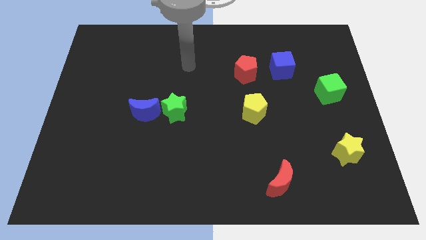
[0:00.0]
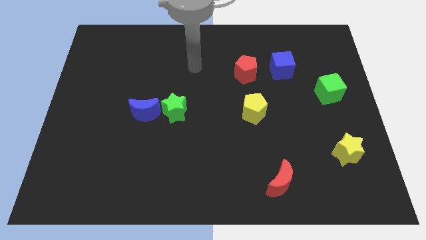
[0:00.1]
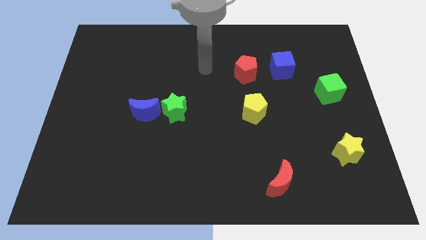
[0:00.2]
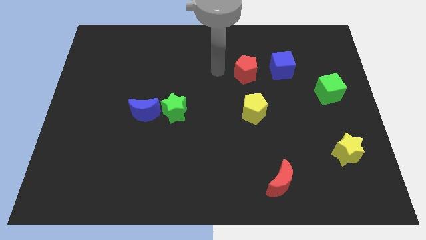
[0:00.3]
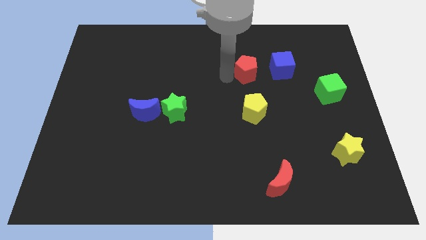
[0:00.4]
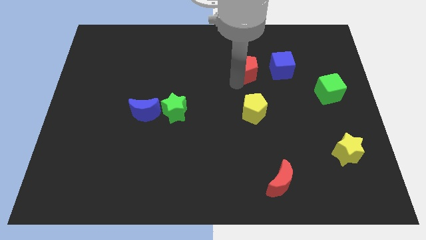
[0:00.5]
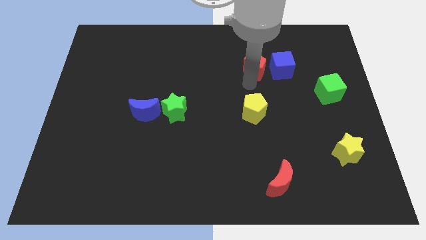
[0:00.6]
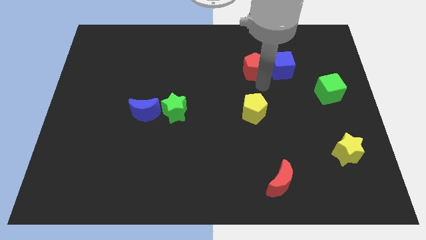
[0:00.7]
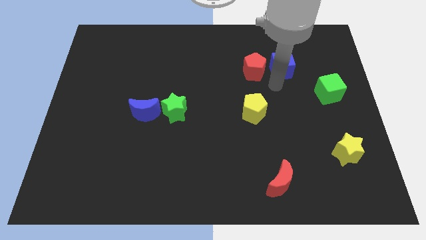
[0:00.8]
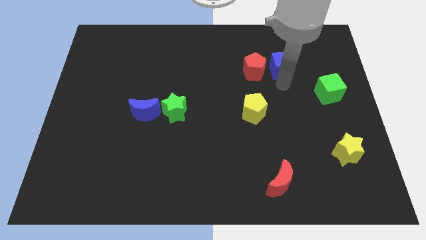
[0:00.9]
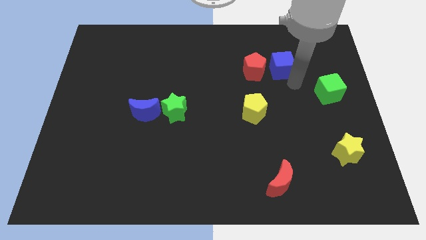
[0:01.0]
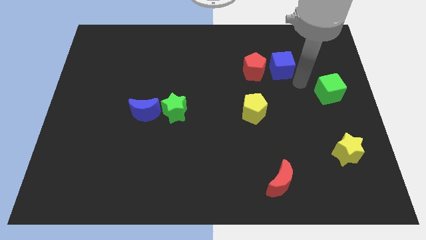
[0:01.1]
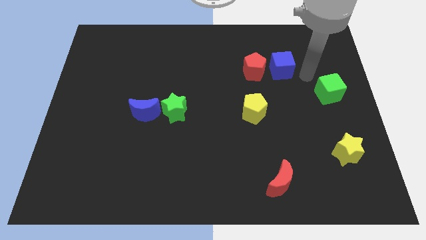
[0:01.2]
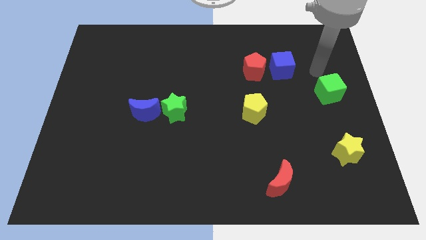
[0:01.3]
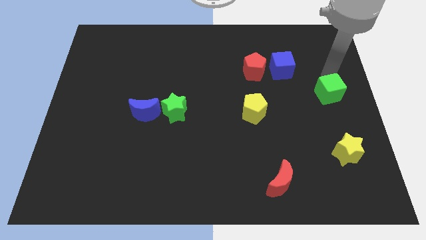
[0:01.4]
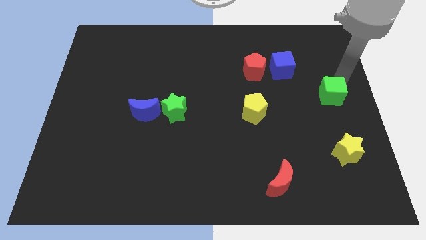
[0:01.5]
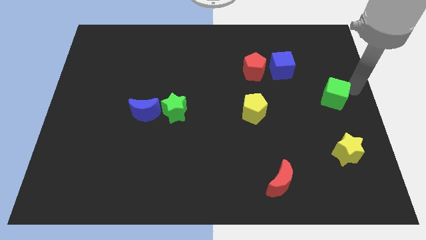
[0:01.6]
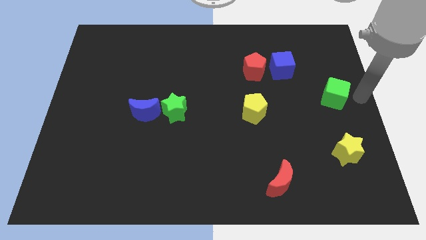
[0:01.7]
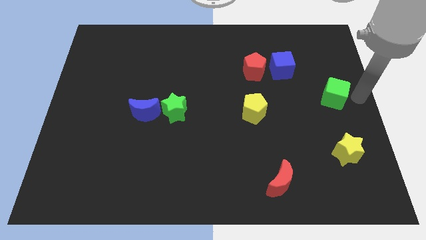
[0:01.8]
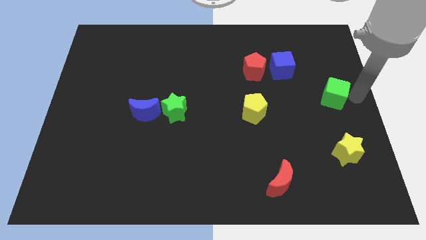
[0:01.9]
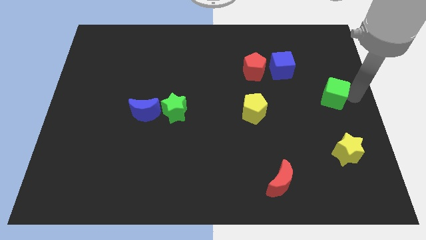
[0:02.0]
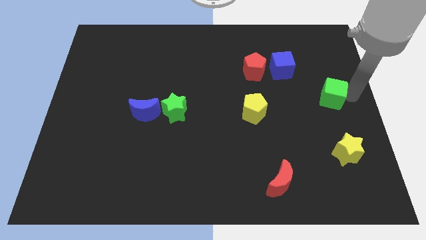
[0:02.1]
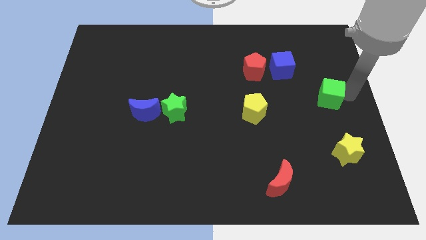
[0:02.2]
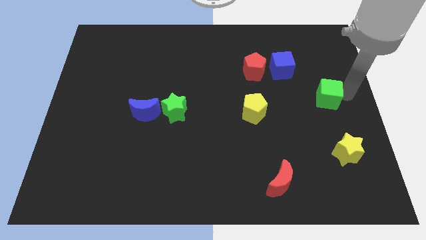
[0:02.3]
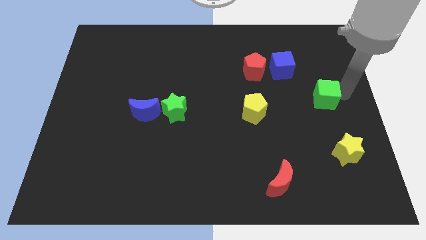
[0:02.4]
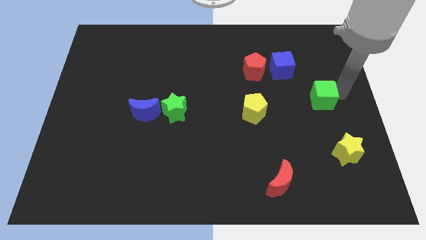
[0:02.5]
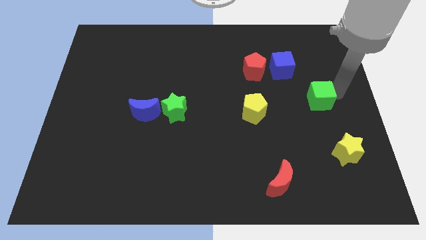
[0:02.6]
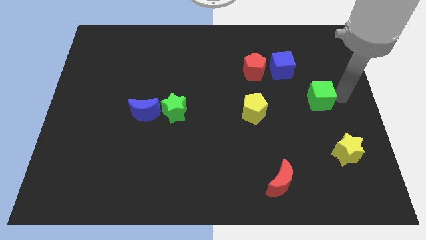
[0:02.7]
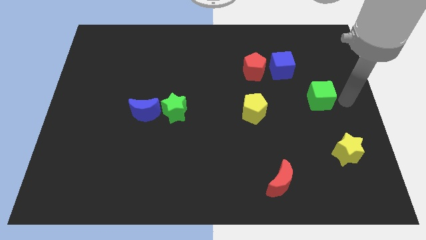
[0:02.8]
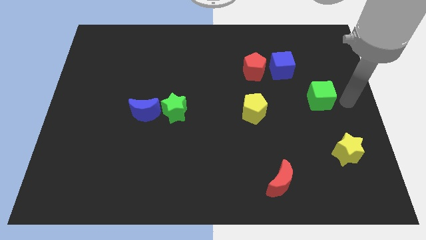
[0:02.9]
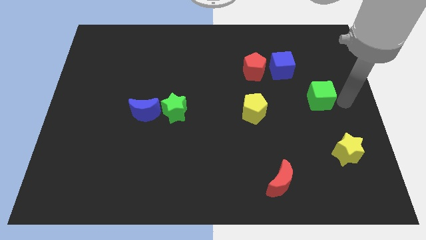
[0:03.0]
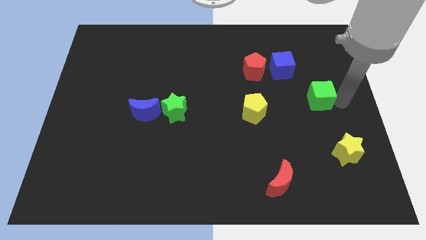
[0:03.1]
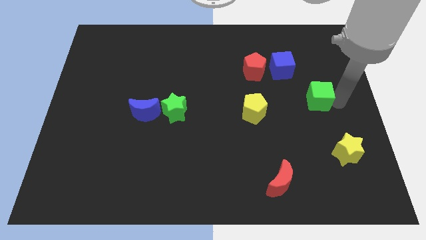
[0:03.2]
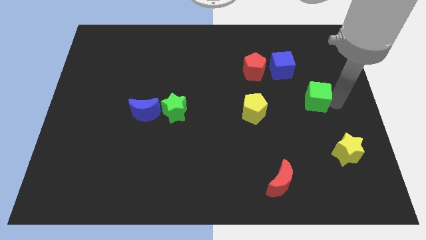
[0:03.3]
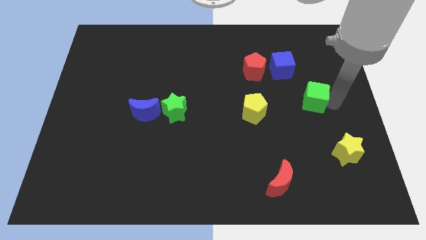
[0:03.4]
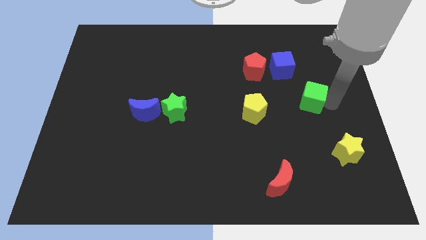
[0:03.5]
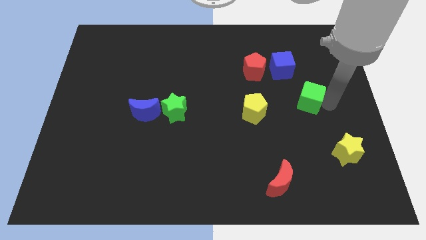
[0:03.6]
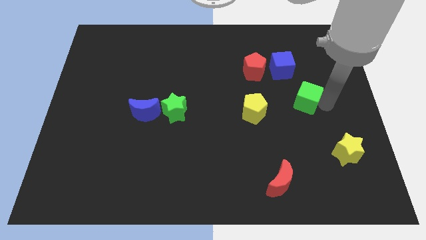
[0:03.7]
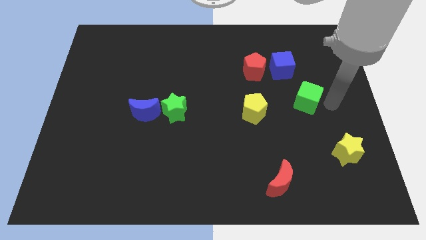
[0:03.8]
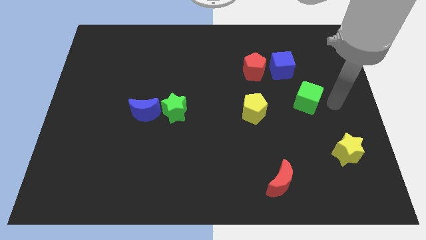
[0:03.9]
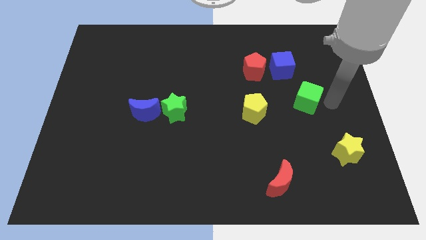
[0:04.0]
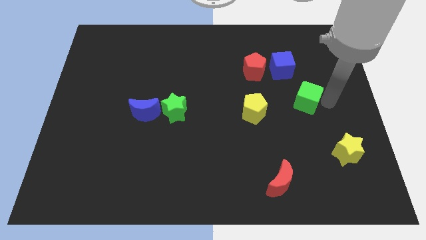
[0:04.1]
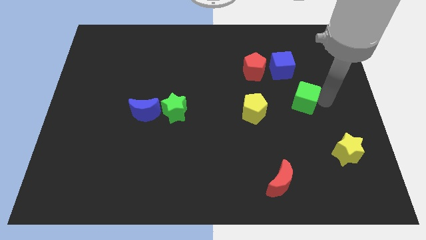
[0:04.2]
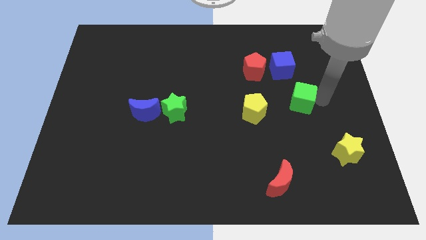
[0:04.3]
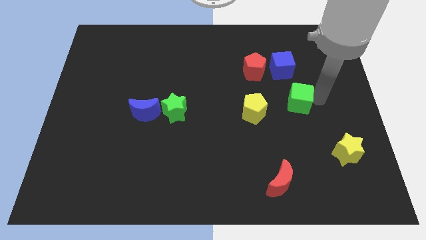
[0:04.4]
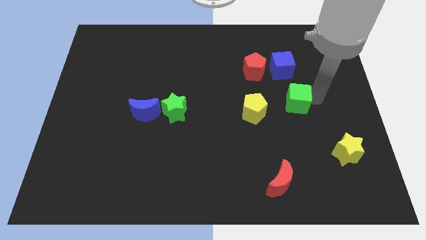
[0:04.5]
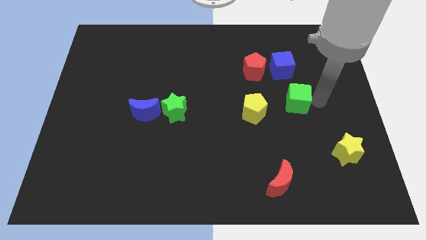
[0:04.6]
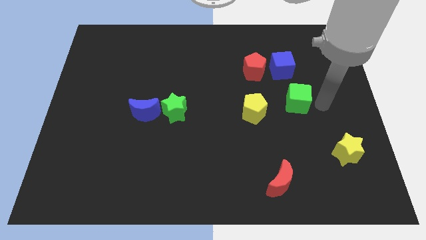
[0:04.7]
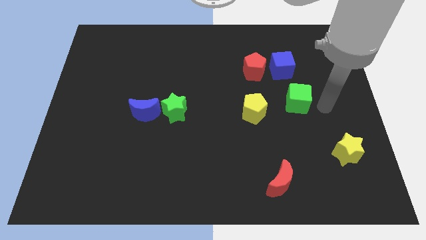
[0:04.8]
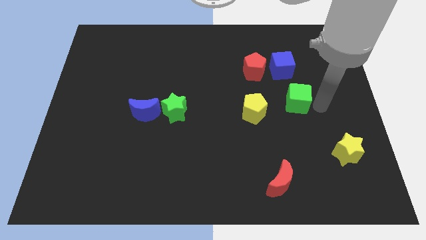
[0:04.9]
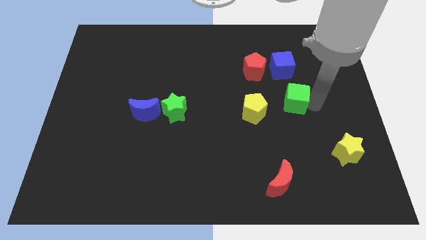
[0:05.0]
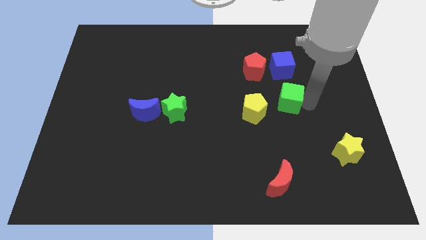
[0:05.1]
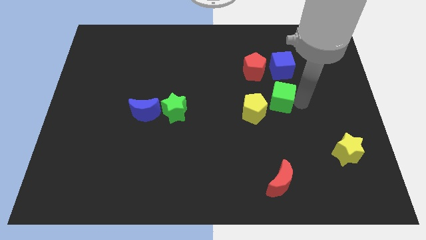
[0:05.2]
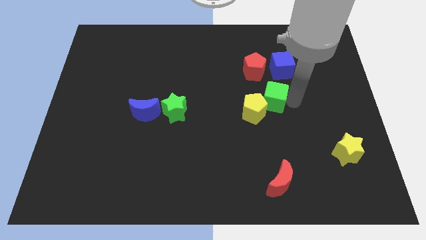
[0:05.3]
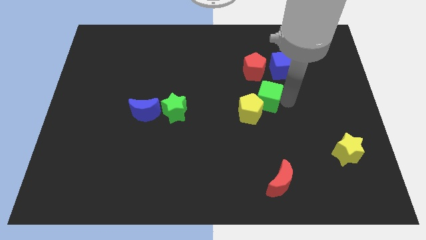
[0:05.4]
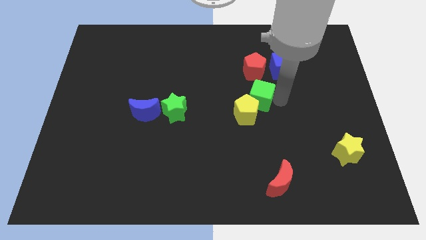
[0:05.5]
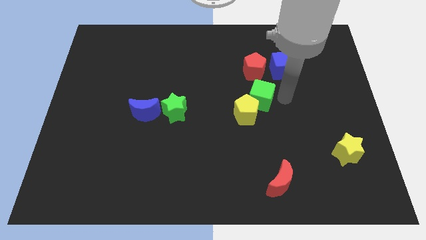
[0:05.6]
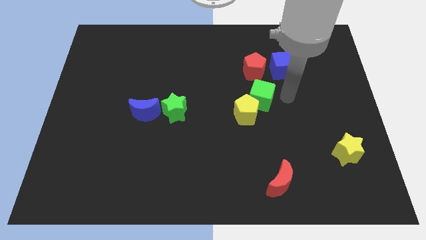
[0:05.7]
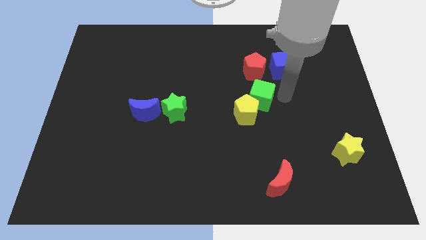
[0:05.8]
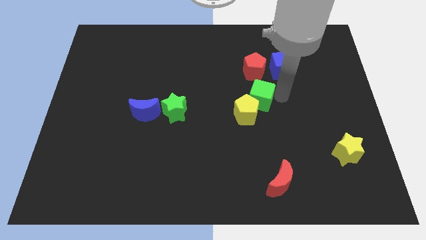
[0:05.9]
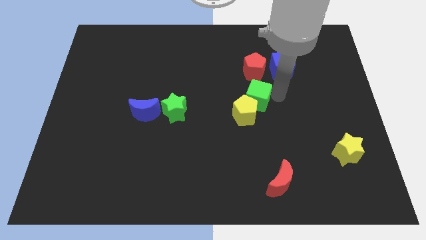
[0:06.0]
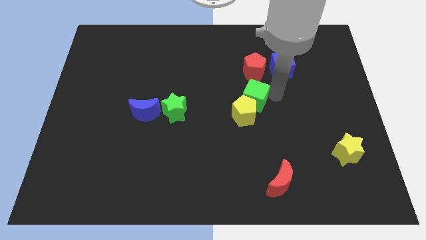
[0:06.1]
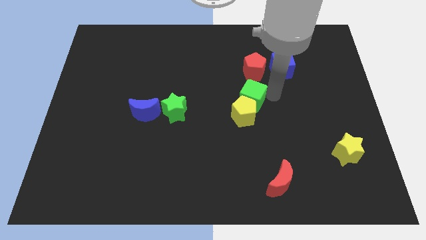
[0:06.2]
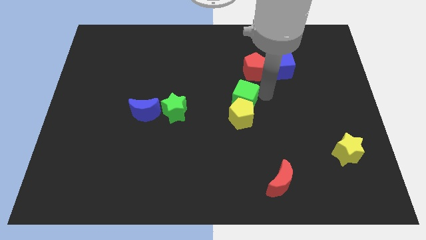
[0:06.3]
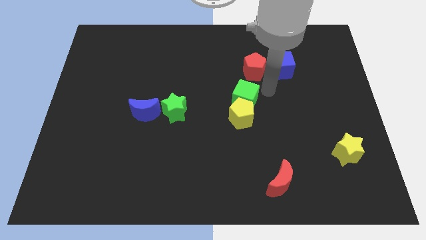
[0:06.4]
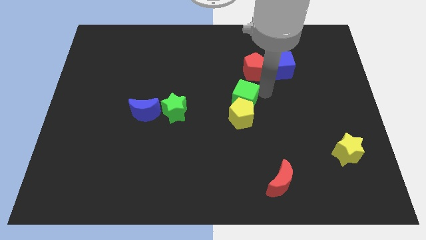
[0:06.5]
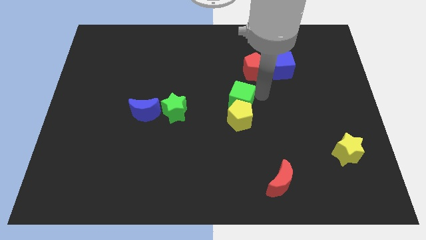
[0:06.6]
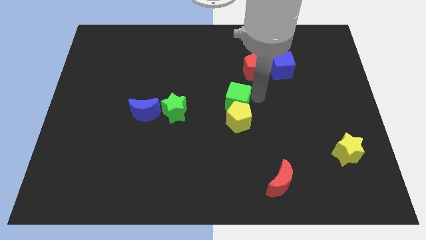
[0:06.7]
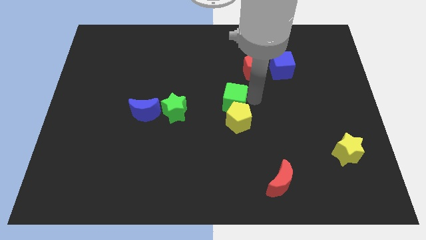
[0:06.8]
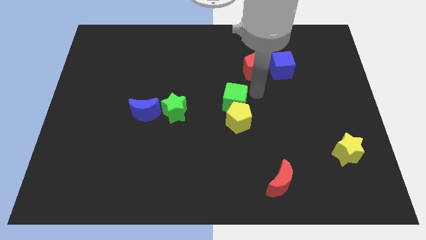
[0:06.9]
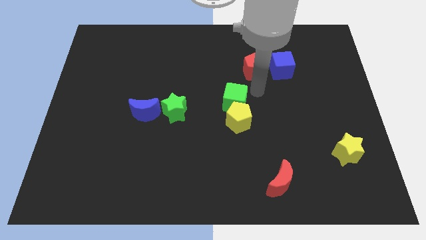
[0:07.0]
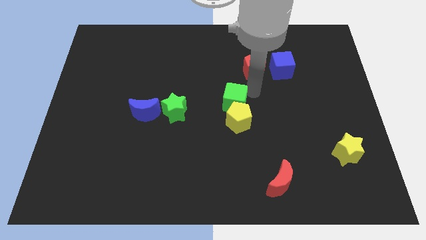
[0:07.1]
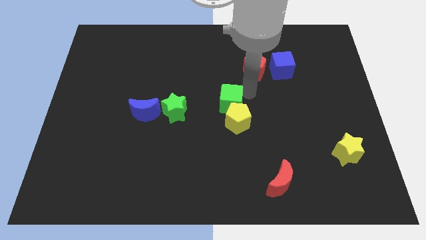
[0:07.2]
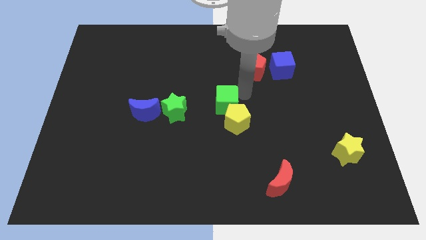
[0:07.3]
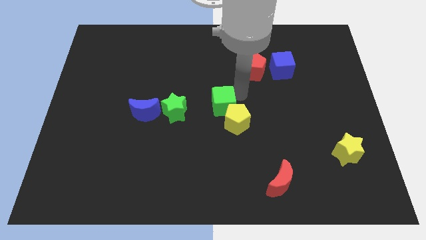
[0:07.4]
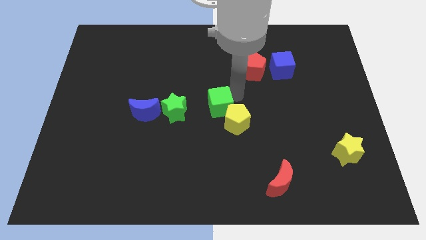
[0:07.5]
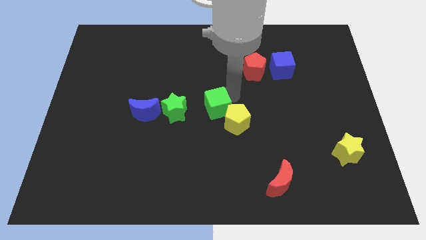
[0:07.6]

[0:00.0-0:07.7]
put the green cube left of the yellow pentagon
